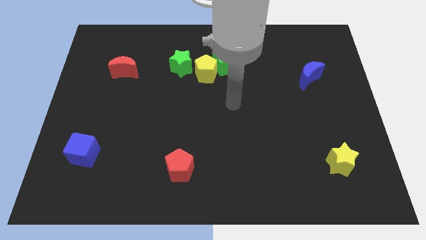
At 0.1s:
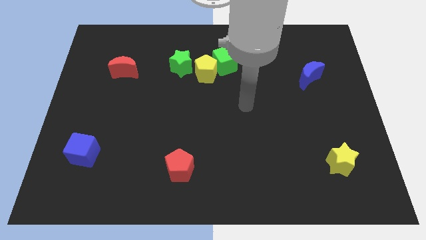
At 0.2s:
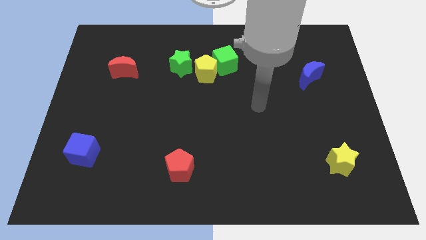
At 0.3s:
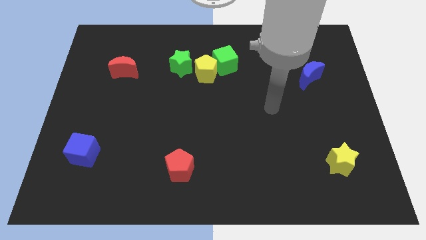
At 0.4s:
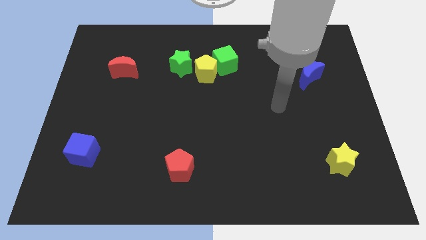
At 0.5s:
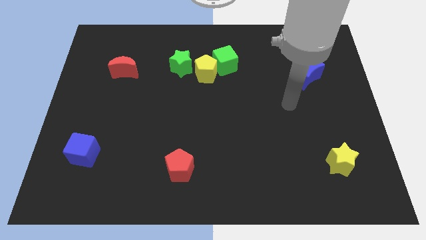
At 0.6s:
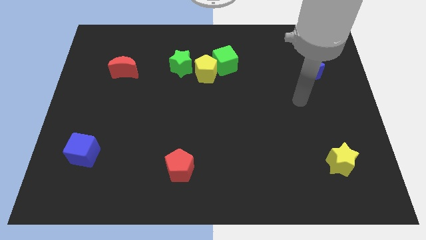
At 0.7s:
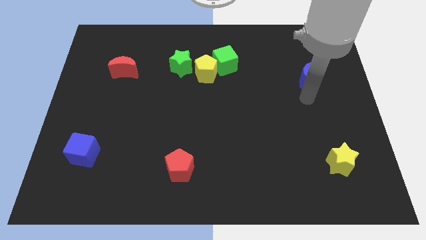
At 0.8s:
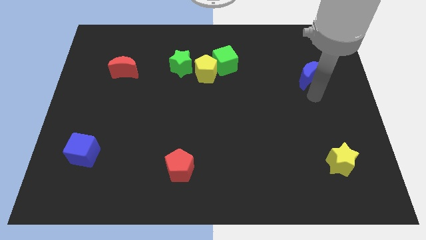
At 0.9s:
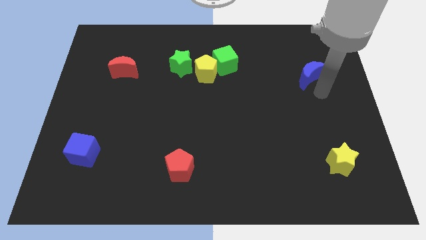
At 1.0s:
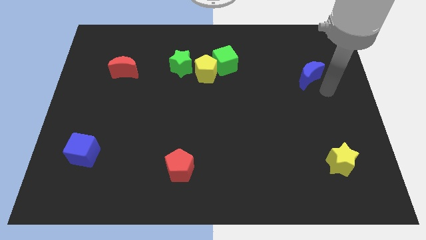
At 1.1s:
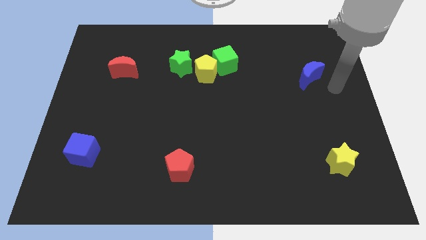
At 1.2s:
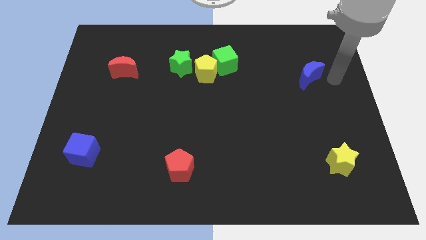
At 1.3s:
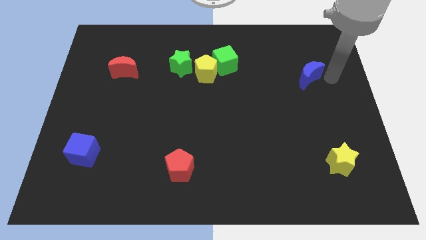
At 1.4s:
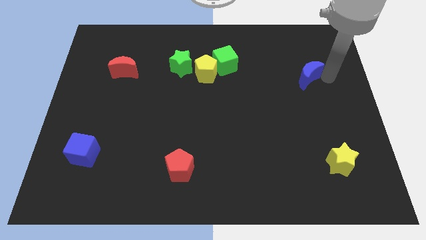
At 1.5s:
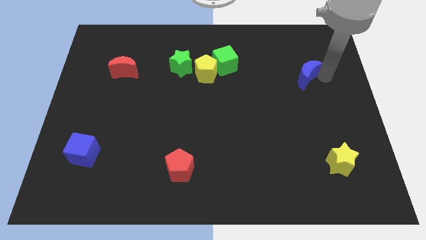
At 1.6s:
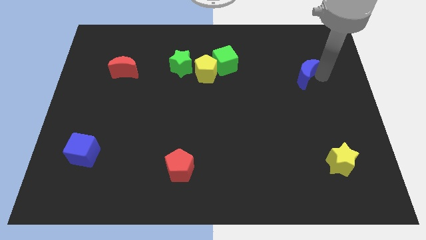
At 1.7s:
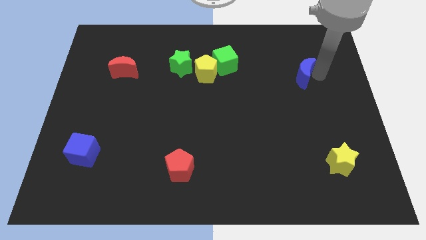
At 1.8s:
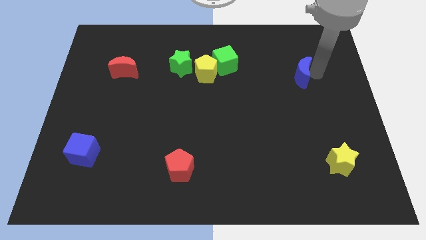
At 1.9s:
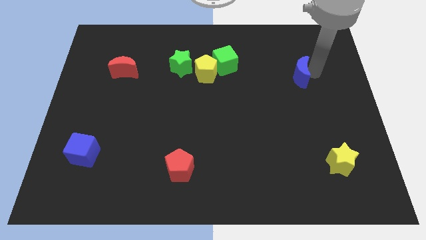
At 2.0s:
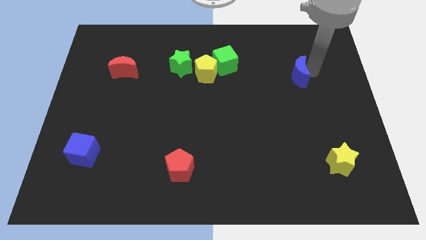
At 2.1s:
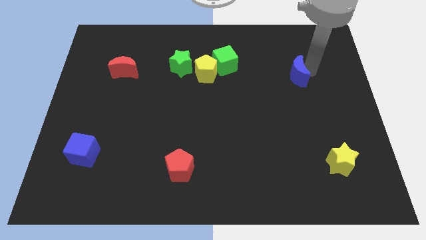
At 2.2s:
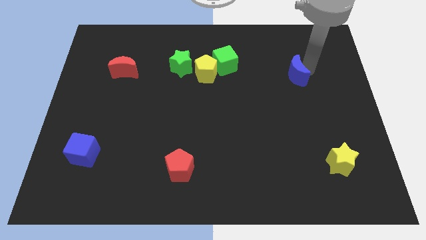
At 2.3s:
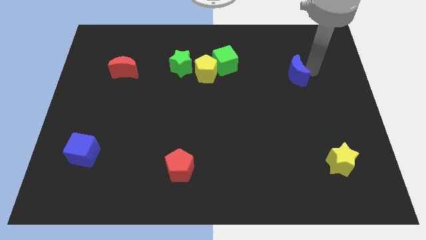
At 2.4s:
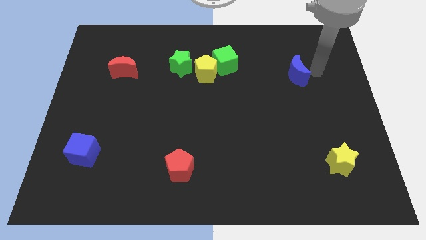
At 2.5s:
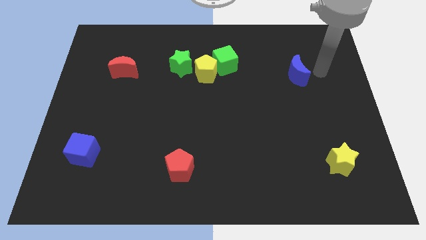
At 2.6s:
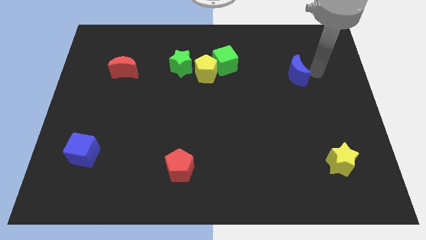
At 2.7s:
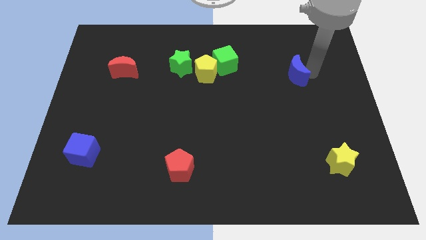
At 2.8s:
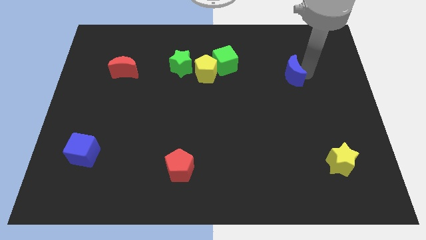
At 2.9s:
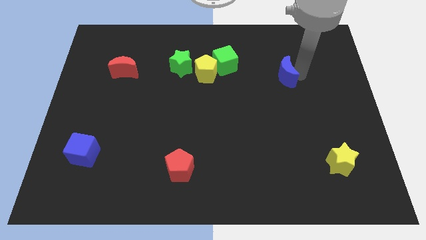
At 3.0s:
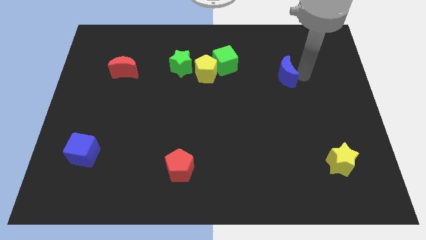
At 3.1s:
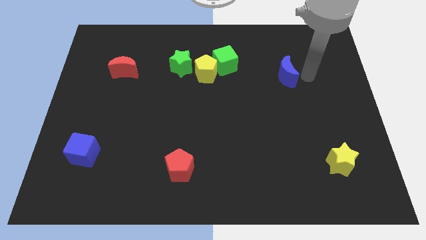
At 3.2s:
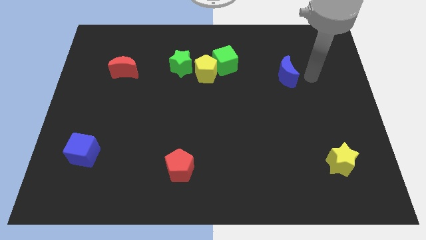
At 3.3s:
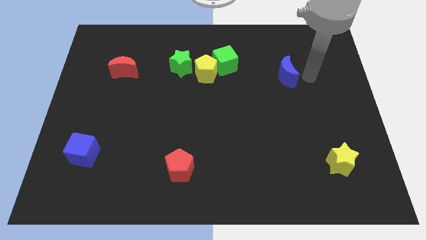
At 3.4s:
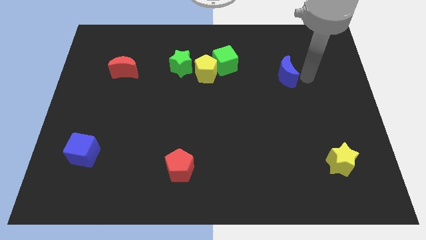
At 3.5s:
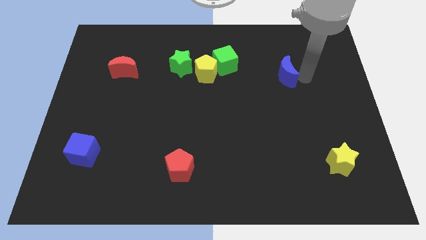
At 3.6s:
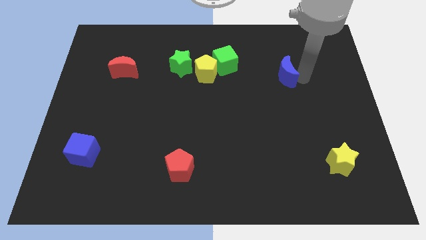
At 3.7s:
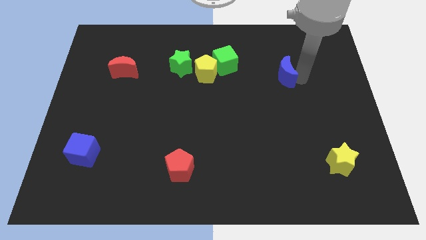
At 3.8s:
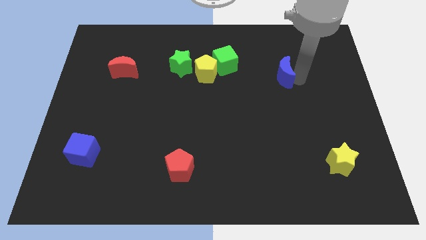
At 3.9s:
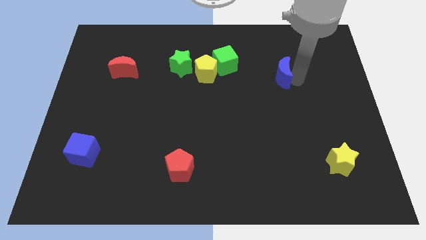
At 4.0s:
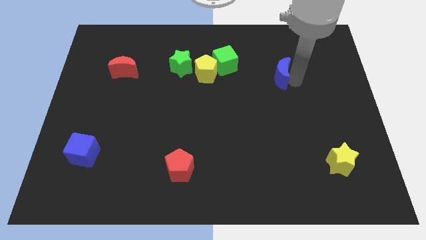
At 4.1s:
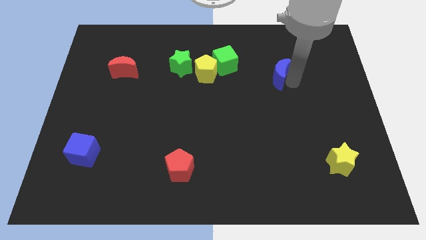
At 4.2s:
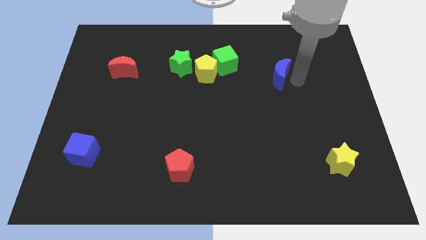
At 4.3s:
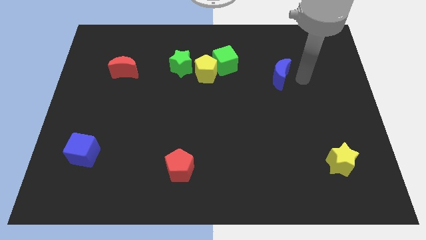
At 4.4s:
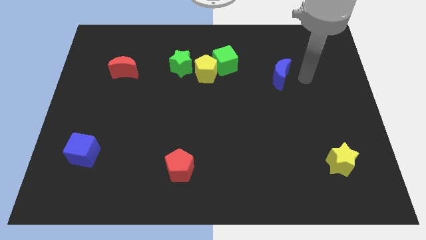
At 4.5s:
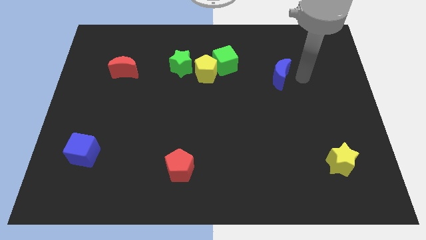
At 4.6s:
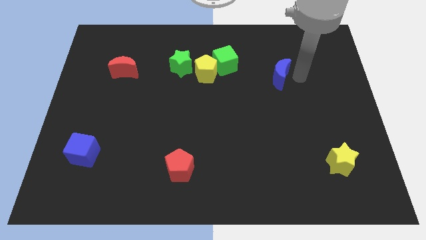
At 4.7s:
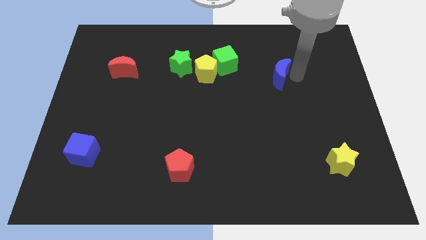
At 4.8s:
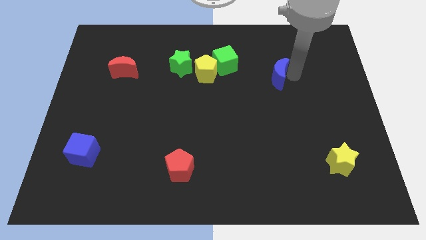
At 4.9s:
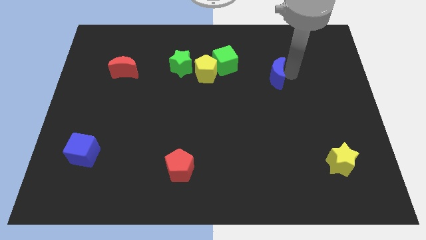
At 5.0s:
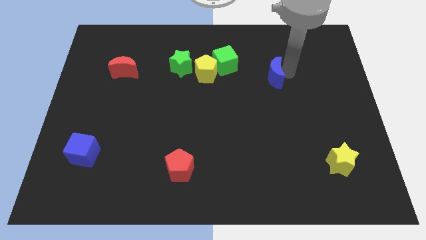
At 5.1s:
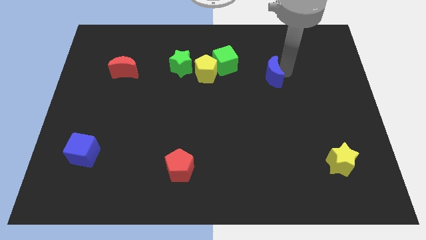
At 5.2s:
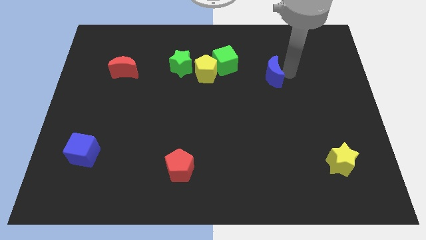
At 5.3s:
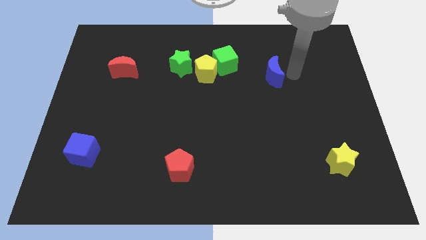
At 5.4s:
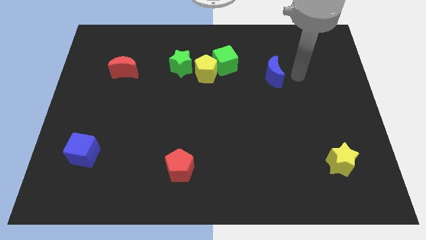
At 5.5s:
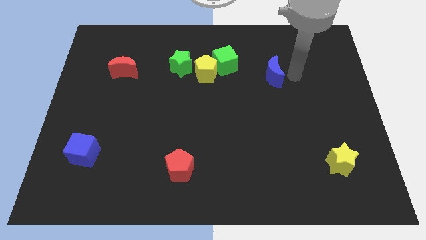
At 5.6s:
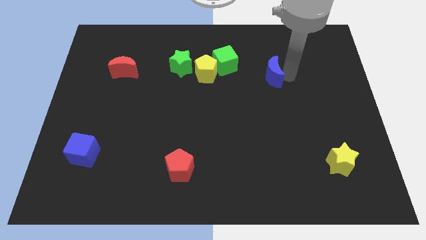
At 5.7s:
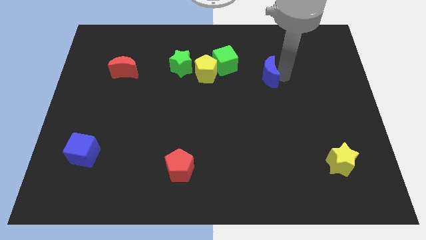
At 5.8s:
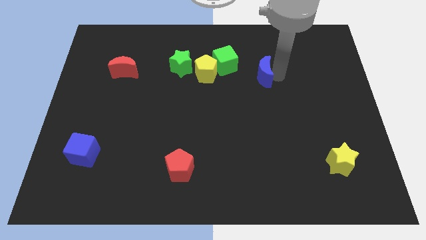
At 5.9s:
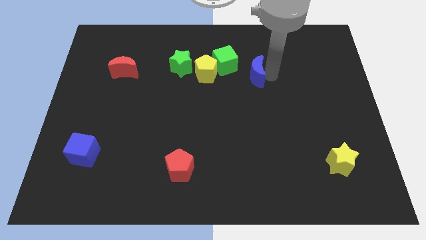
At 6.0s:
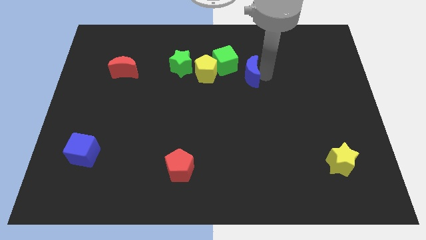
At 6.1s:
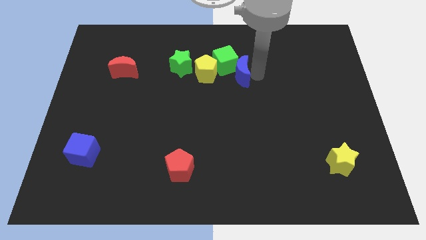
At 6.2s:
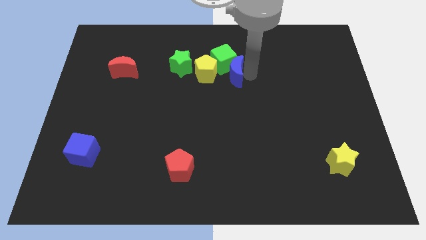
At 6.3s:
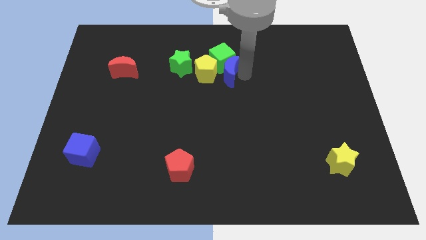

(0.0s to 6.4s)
move the blue moon next to the yellow pentagon

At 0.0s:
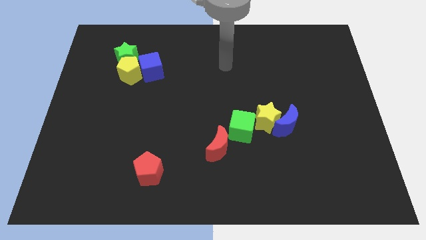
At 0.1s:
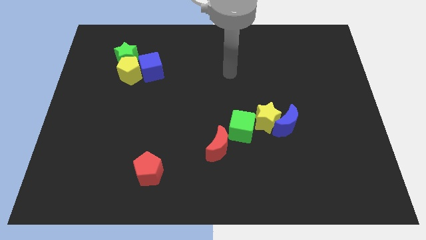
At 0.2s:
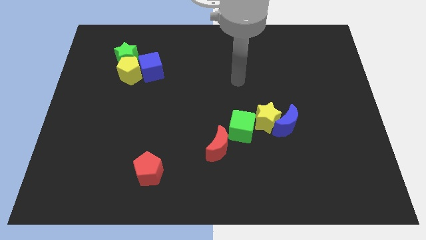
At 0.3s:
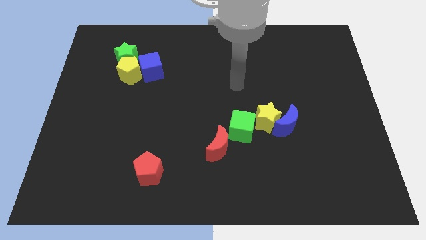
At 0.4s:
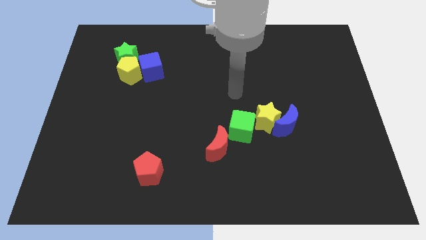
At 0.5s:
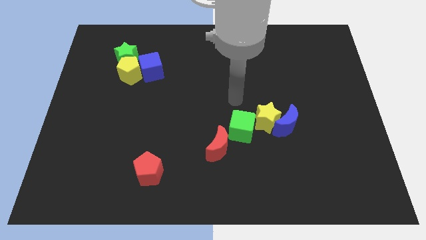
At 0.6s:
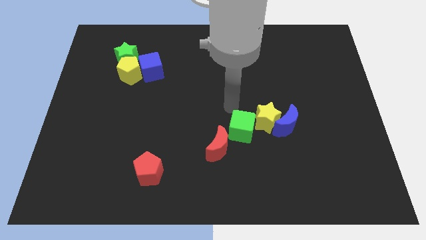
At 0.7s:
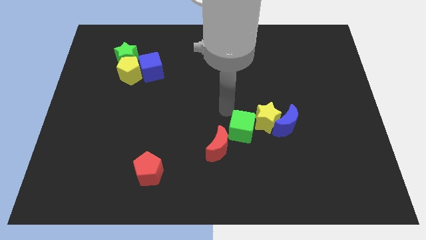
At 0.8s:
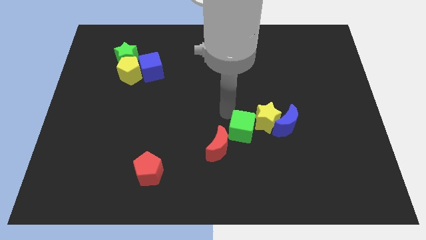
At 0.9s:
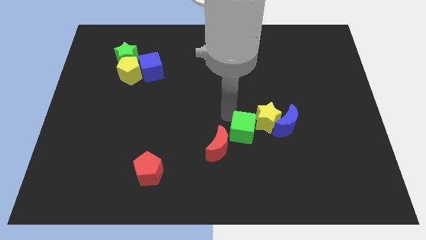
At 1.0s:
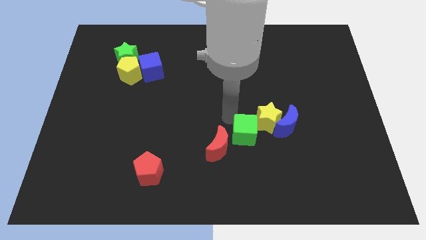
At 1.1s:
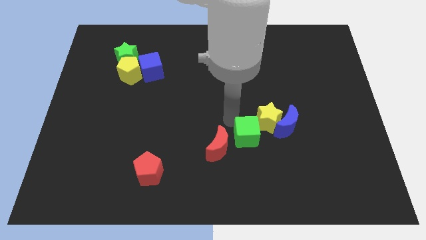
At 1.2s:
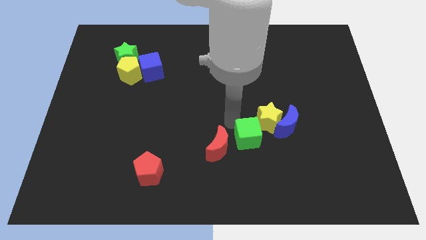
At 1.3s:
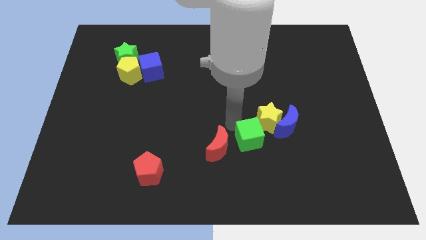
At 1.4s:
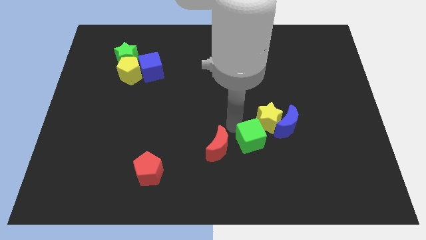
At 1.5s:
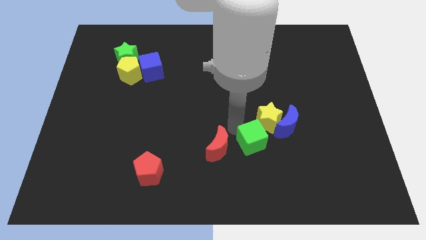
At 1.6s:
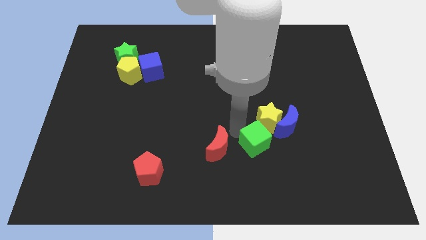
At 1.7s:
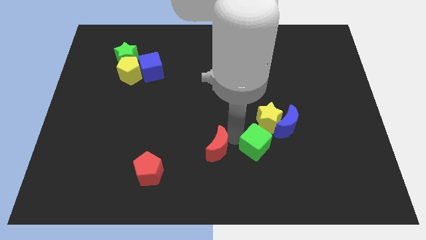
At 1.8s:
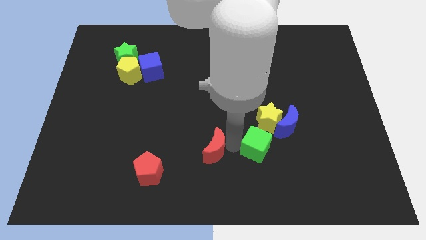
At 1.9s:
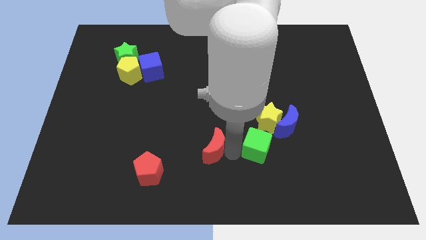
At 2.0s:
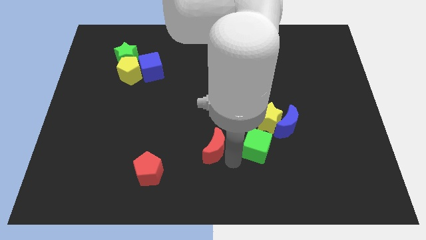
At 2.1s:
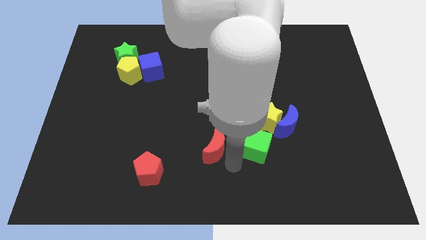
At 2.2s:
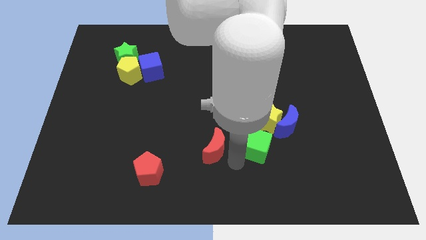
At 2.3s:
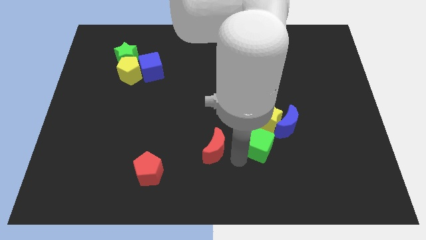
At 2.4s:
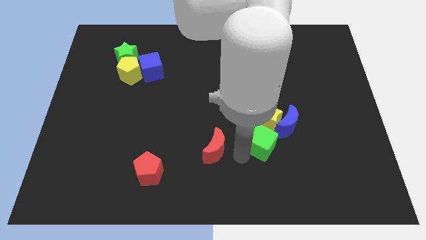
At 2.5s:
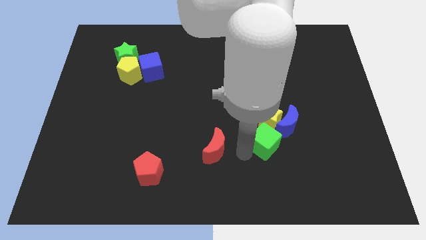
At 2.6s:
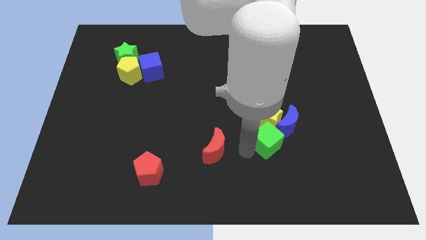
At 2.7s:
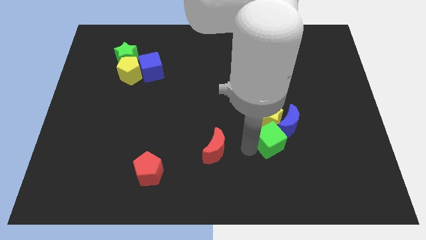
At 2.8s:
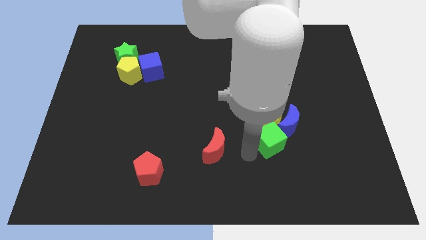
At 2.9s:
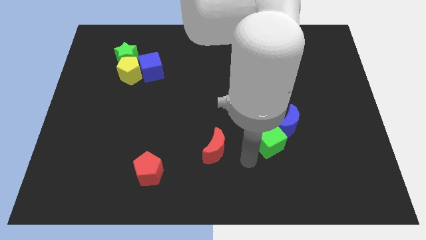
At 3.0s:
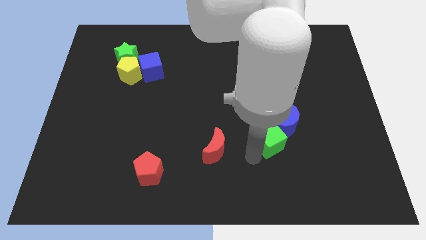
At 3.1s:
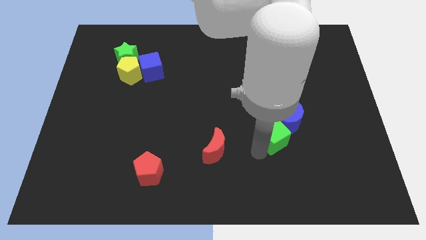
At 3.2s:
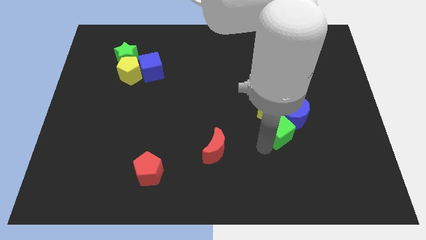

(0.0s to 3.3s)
slide the green cube next to the blue moon
